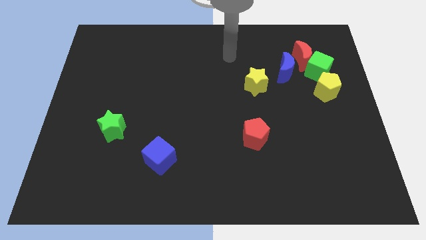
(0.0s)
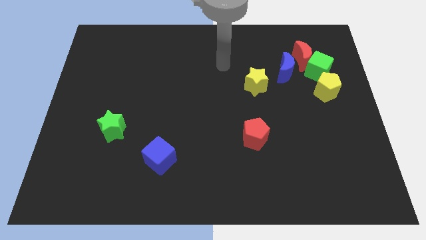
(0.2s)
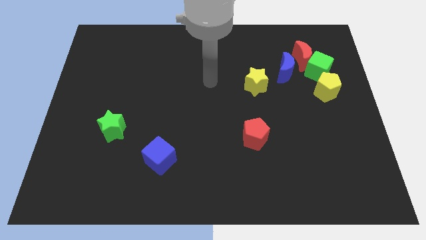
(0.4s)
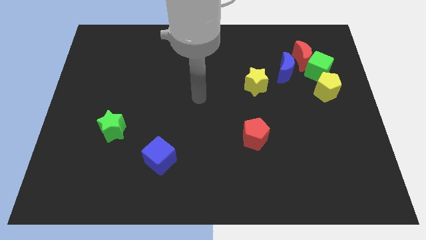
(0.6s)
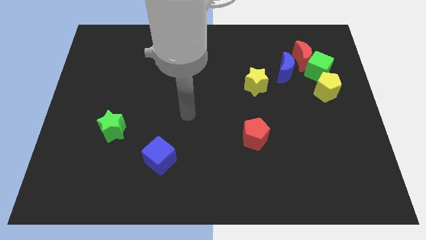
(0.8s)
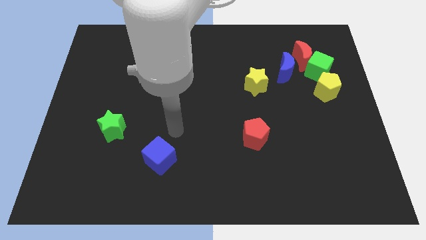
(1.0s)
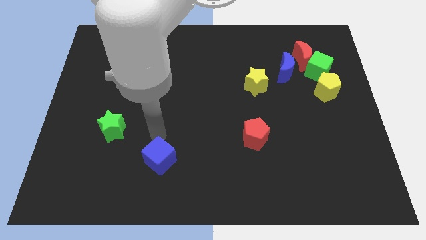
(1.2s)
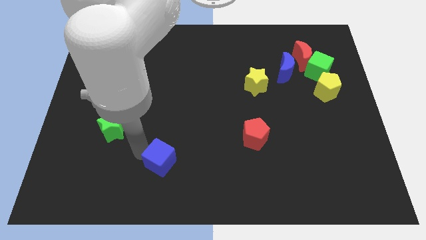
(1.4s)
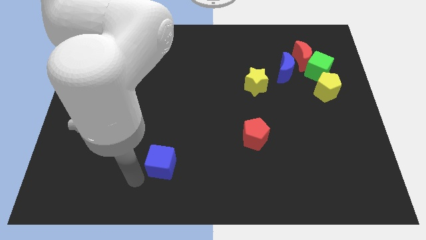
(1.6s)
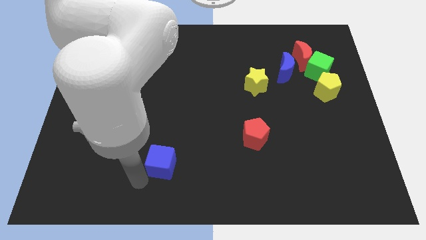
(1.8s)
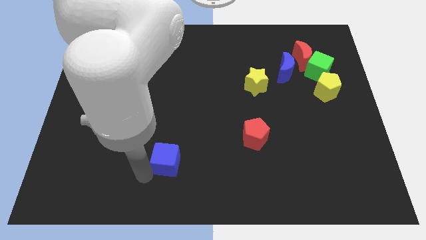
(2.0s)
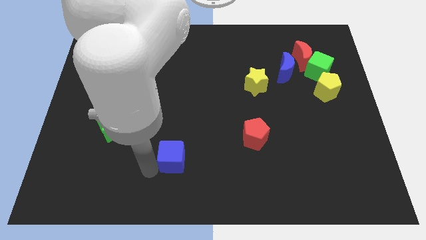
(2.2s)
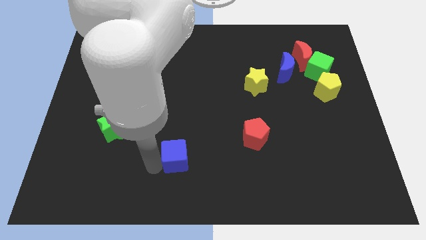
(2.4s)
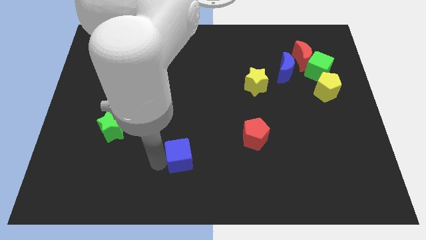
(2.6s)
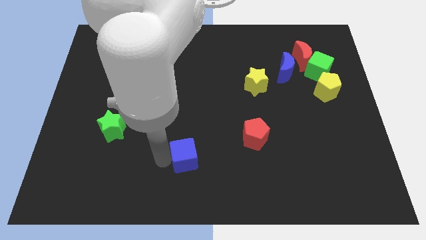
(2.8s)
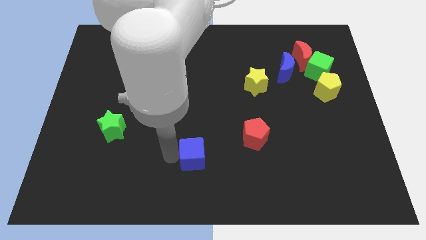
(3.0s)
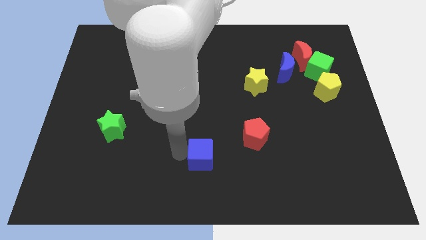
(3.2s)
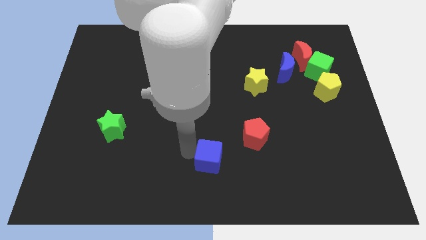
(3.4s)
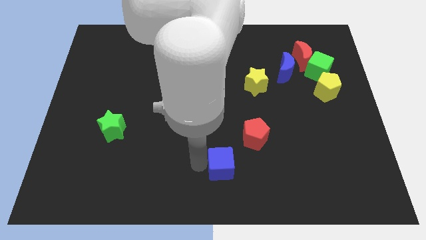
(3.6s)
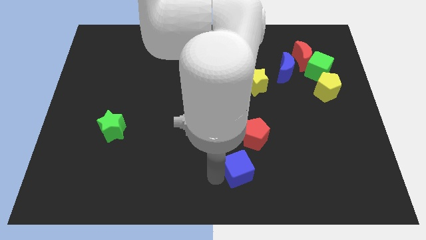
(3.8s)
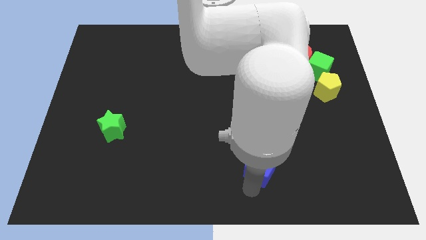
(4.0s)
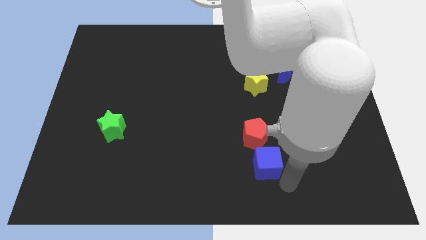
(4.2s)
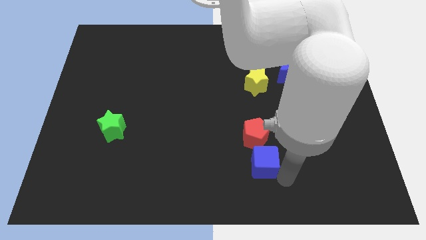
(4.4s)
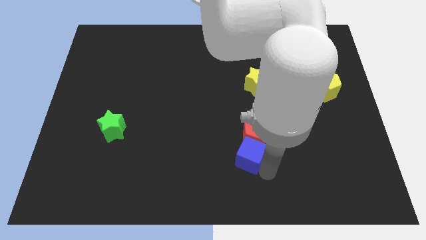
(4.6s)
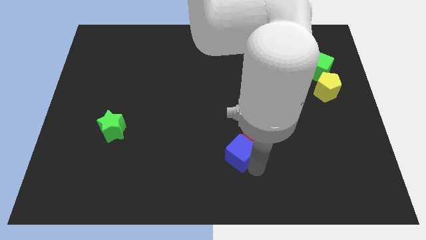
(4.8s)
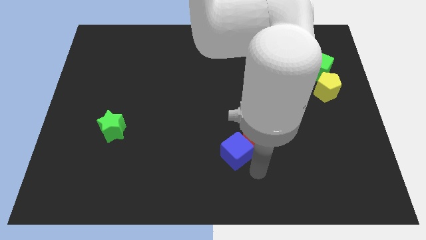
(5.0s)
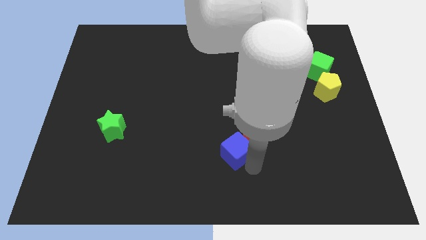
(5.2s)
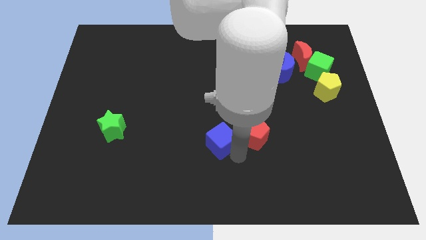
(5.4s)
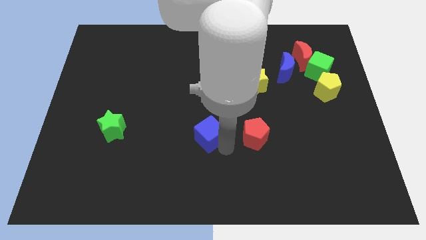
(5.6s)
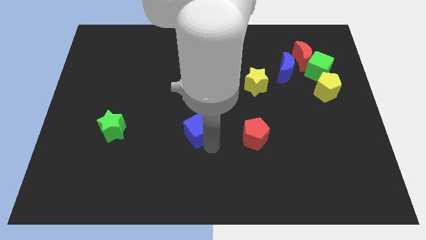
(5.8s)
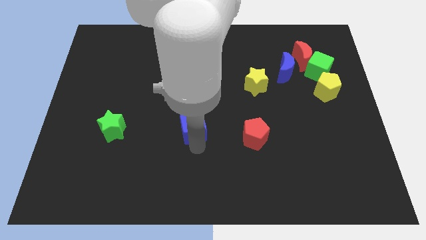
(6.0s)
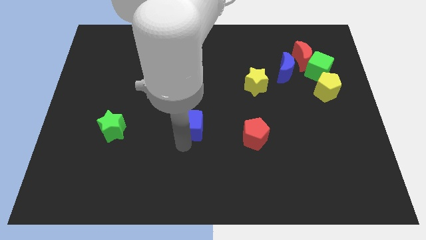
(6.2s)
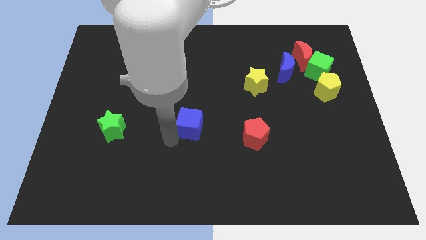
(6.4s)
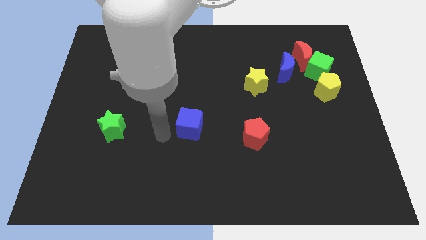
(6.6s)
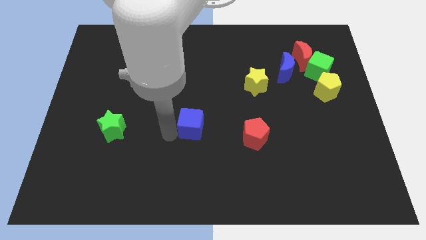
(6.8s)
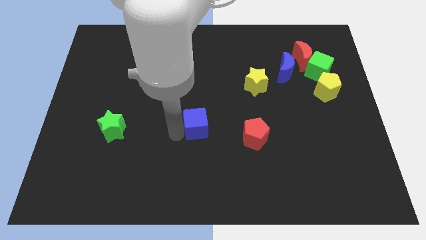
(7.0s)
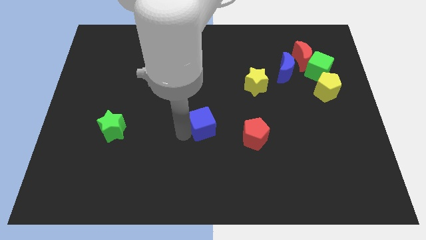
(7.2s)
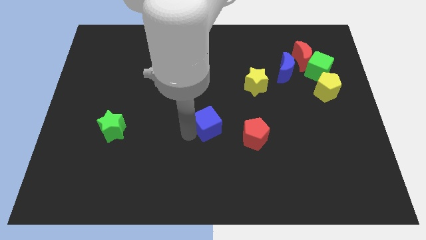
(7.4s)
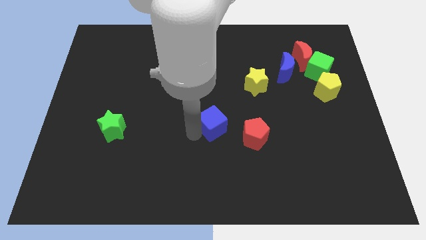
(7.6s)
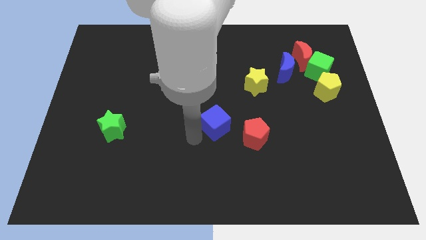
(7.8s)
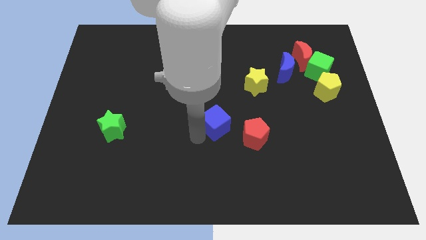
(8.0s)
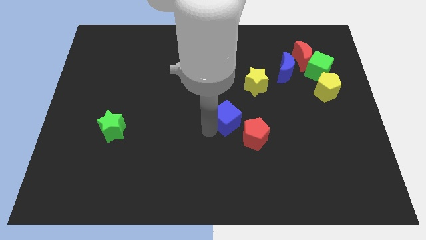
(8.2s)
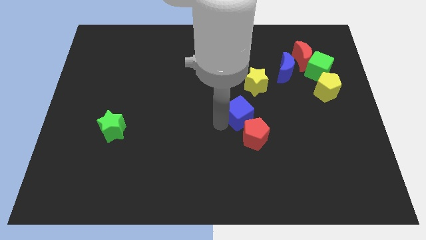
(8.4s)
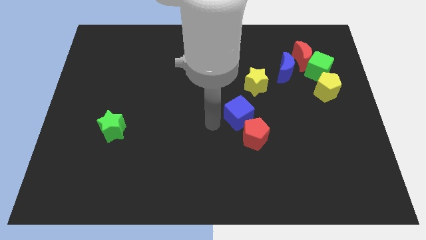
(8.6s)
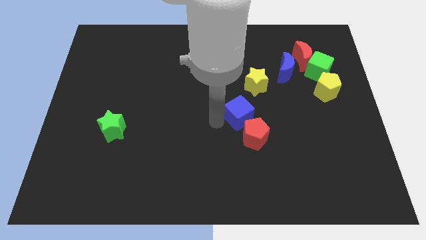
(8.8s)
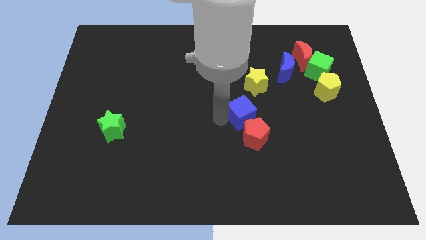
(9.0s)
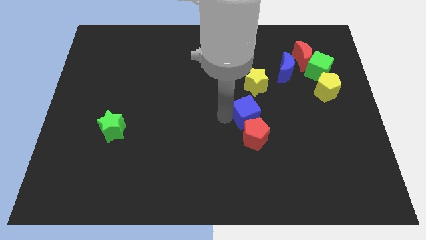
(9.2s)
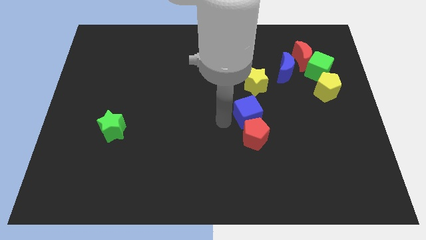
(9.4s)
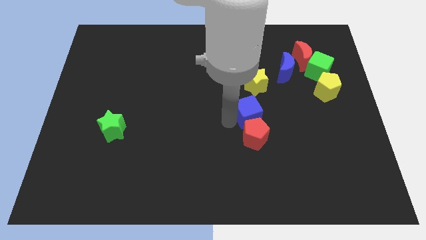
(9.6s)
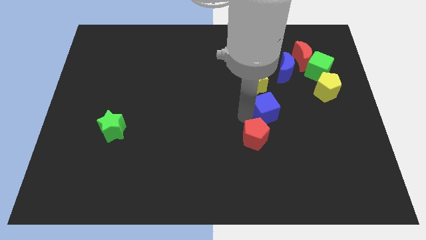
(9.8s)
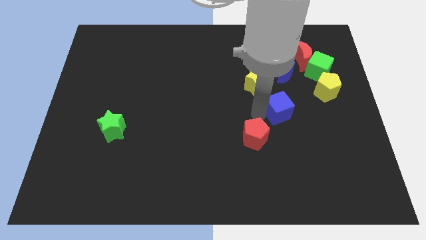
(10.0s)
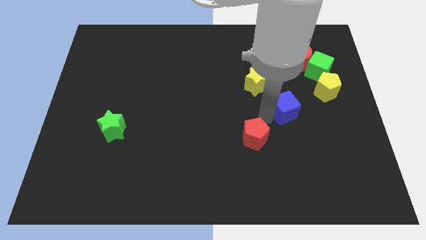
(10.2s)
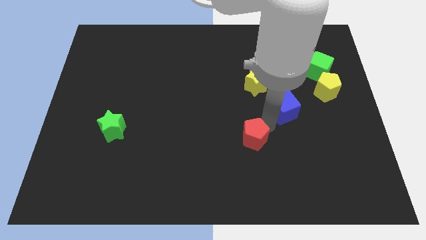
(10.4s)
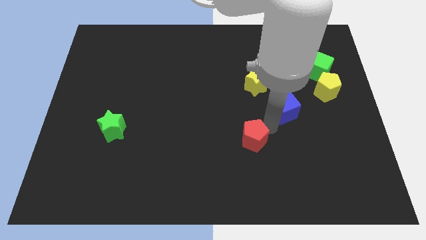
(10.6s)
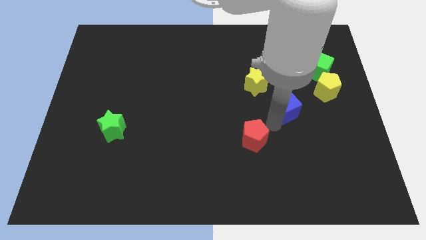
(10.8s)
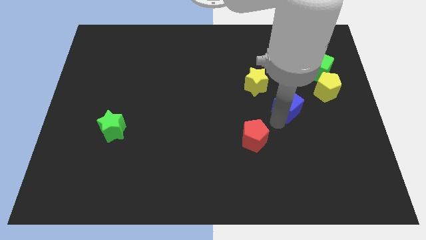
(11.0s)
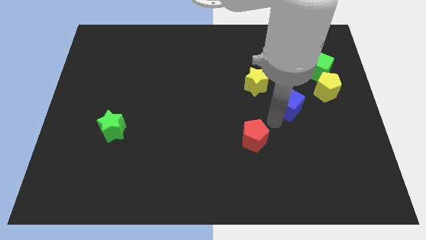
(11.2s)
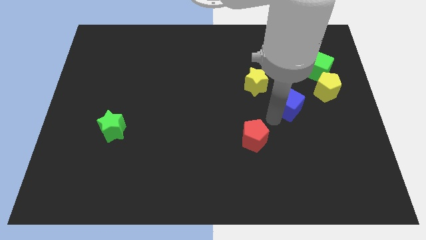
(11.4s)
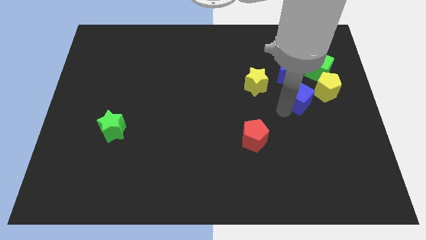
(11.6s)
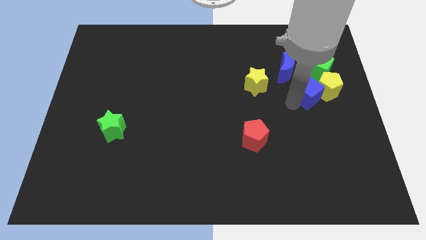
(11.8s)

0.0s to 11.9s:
move the blue cube to the yellow pentagon

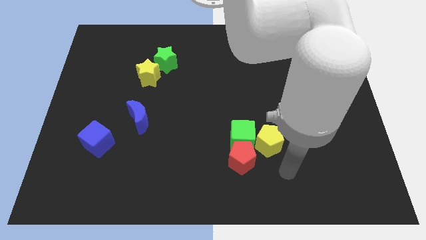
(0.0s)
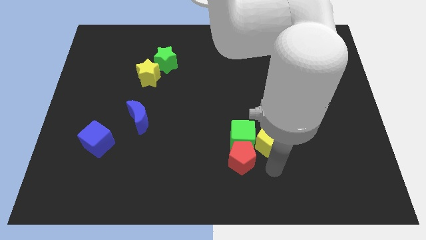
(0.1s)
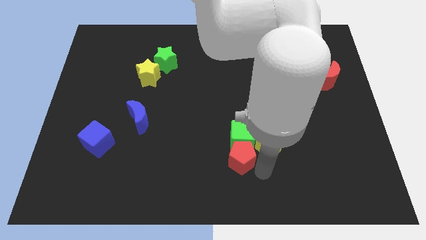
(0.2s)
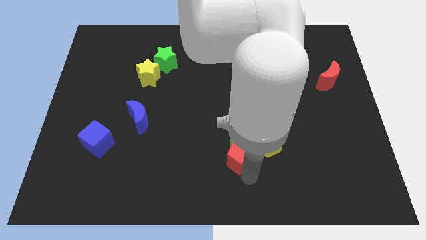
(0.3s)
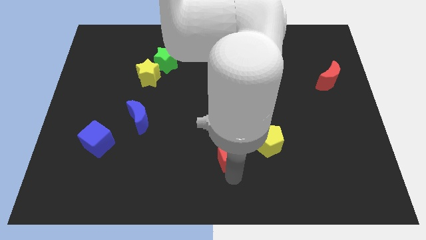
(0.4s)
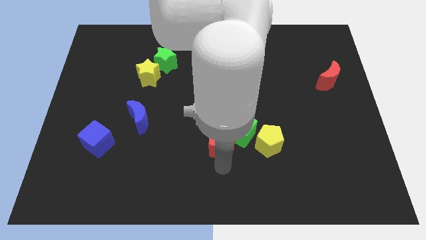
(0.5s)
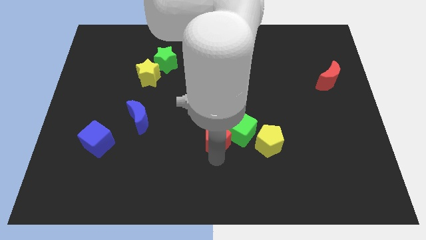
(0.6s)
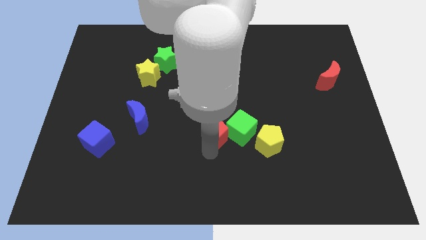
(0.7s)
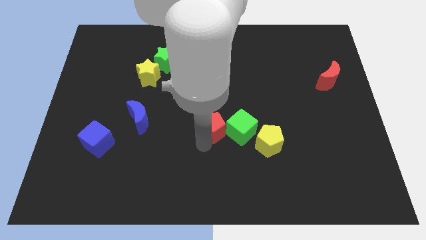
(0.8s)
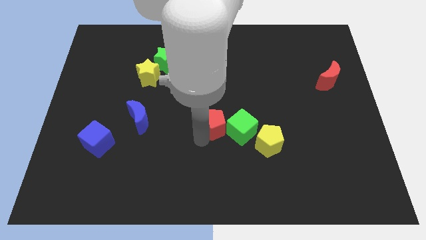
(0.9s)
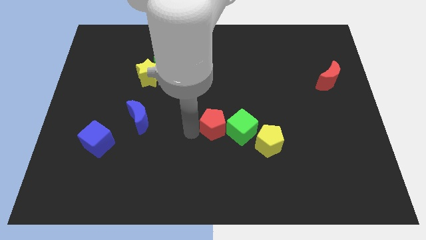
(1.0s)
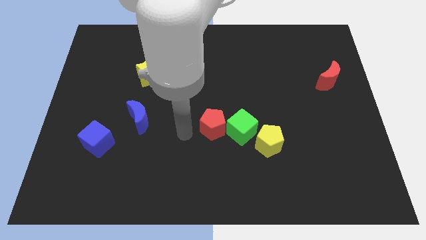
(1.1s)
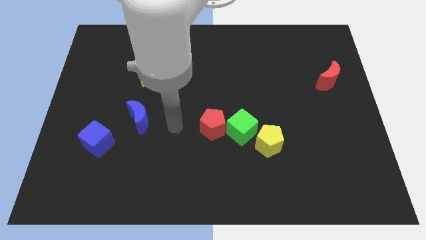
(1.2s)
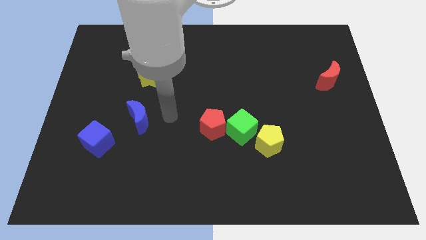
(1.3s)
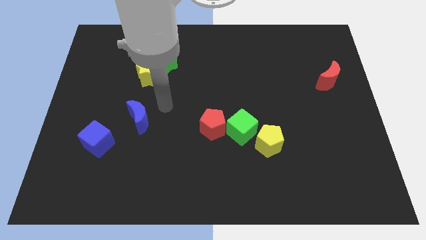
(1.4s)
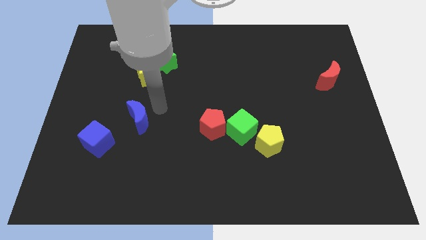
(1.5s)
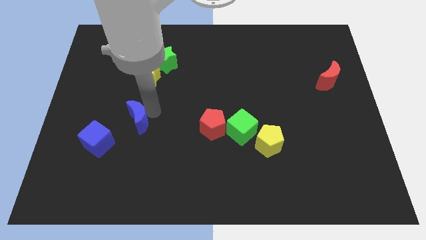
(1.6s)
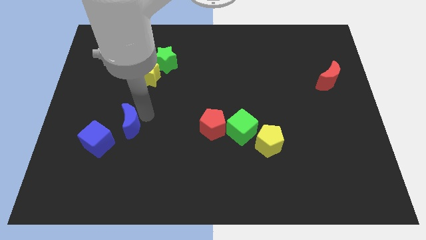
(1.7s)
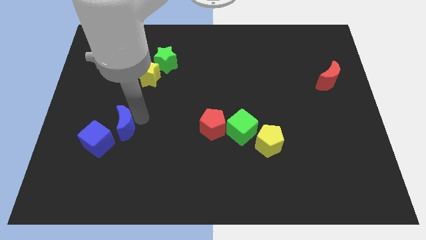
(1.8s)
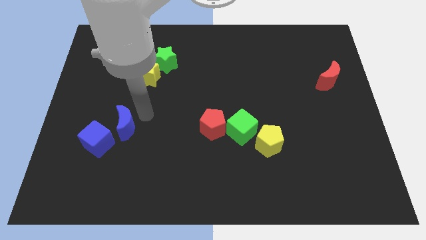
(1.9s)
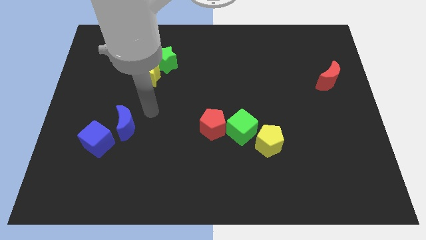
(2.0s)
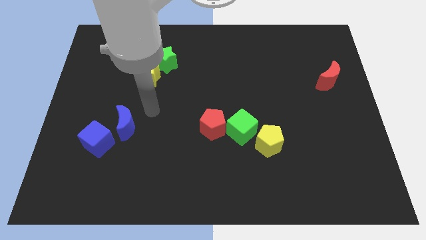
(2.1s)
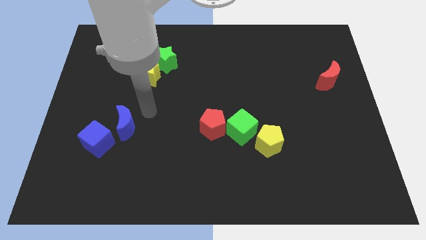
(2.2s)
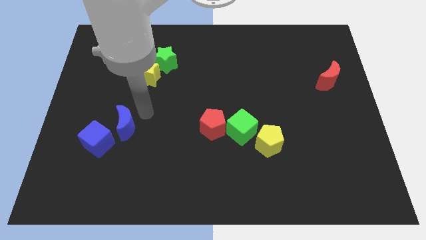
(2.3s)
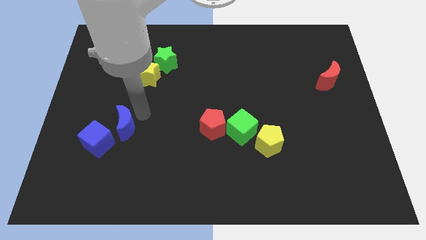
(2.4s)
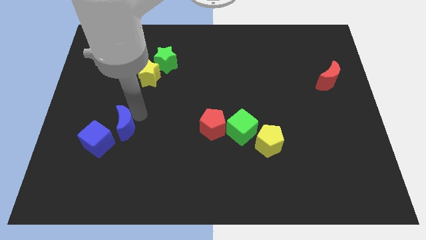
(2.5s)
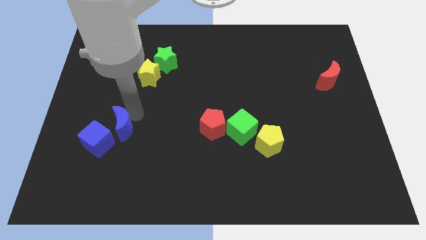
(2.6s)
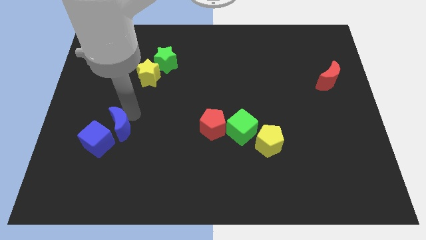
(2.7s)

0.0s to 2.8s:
move the blue moon to the blue cube
